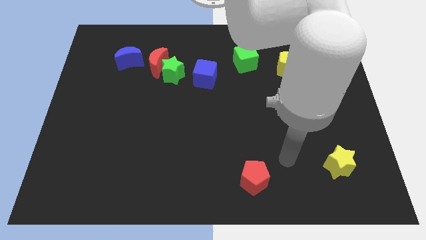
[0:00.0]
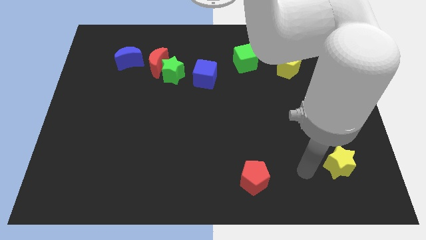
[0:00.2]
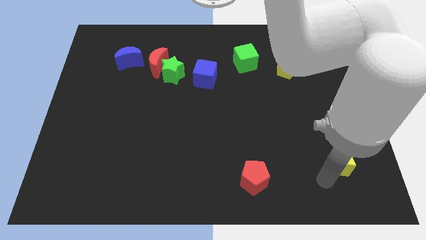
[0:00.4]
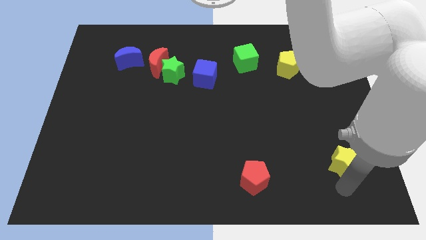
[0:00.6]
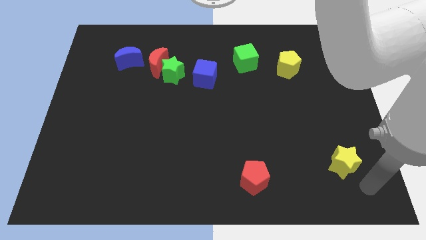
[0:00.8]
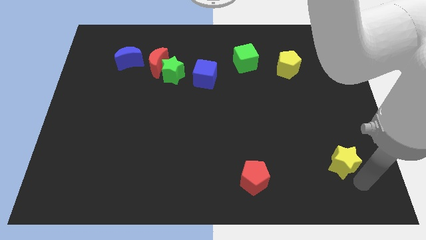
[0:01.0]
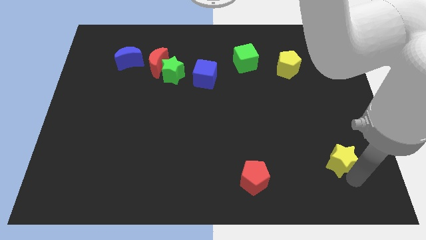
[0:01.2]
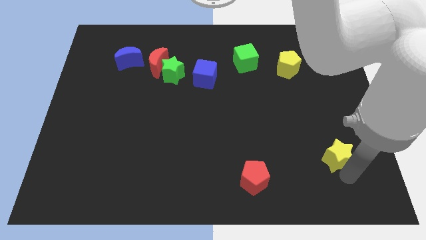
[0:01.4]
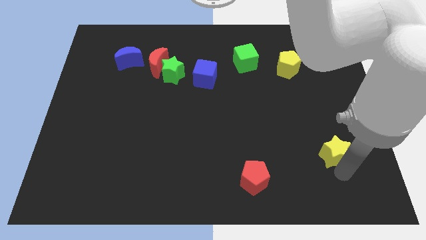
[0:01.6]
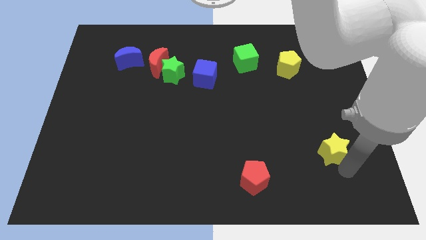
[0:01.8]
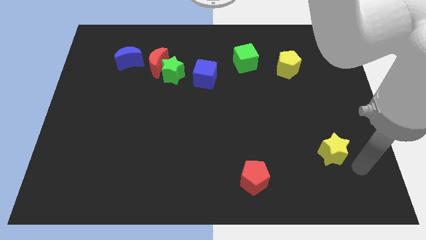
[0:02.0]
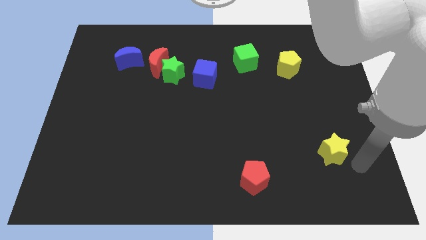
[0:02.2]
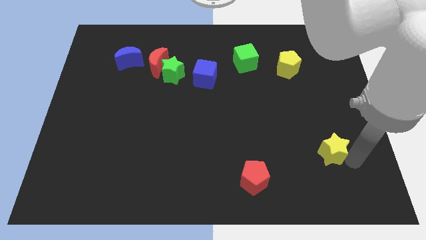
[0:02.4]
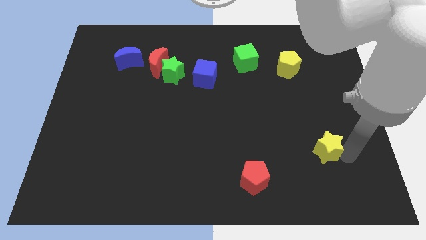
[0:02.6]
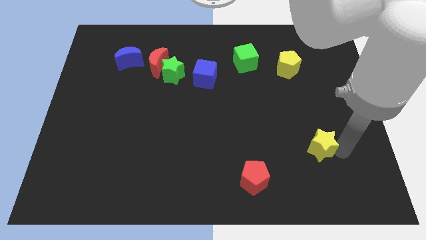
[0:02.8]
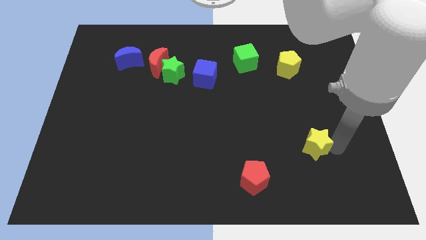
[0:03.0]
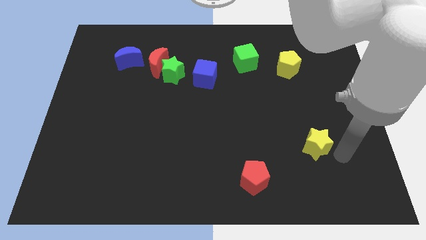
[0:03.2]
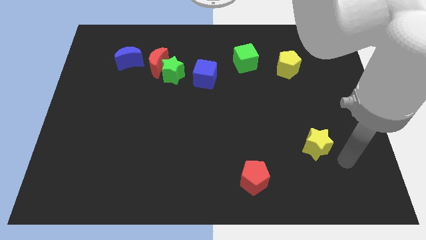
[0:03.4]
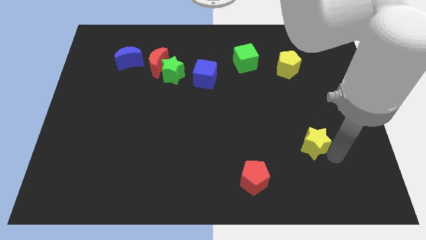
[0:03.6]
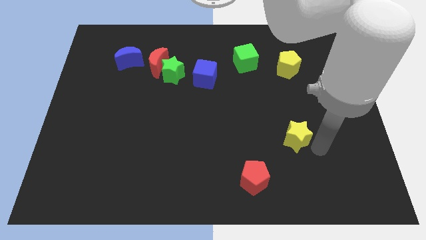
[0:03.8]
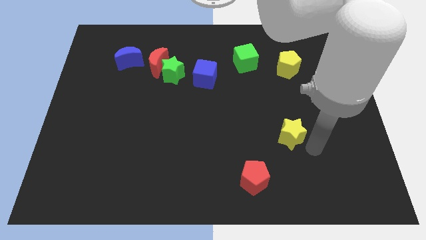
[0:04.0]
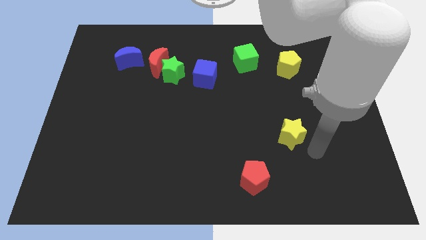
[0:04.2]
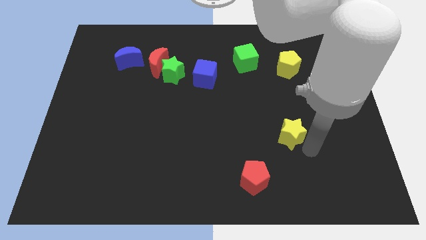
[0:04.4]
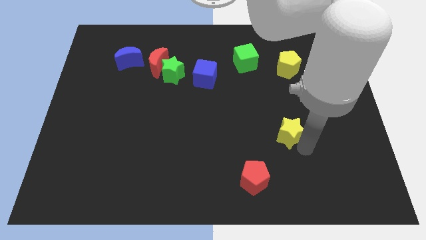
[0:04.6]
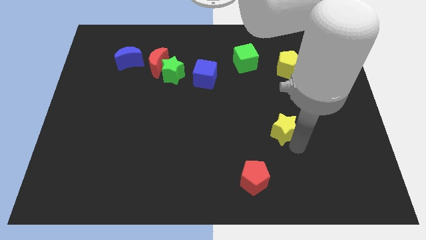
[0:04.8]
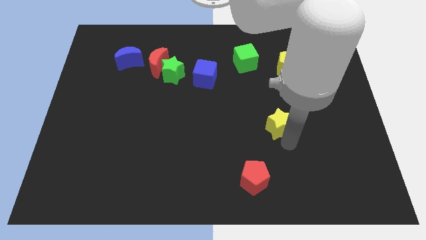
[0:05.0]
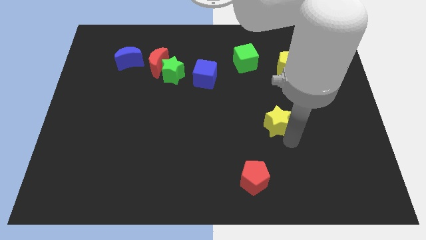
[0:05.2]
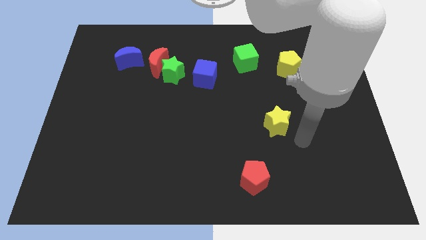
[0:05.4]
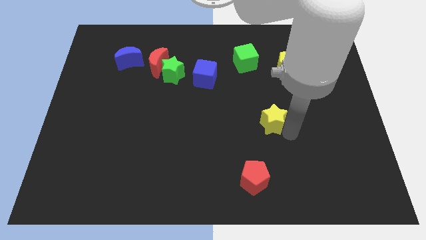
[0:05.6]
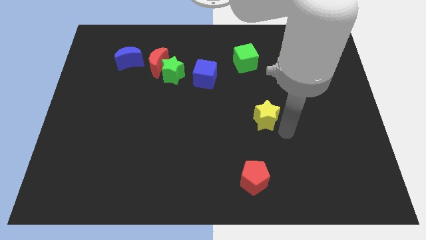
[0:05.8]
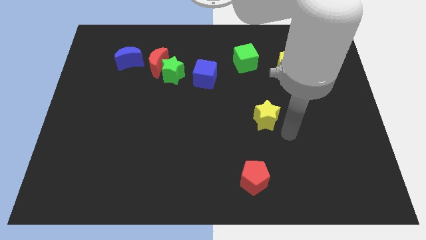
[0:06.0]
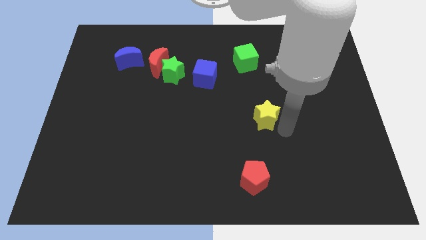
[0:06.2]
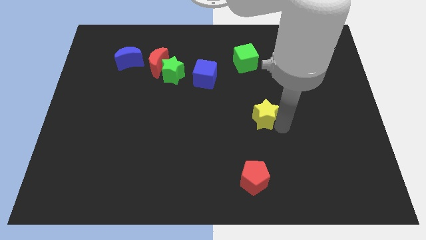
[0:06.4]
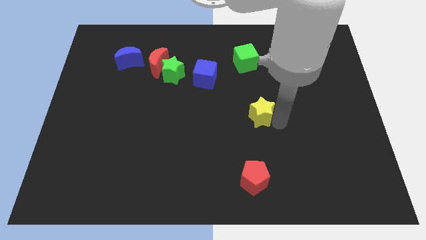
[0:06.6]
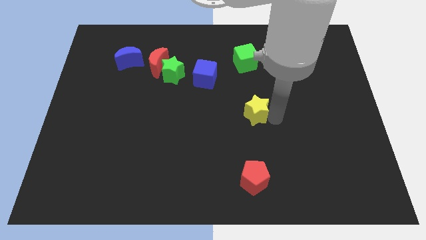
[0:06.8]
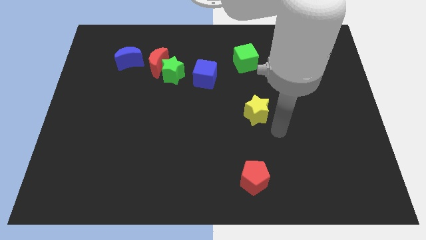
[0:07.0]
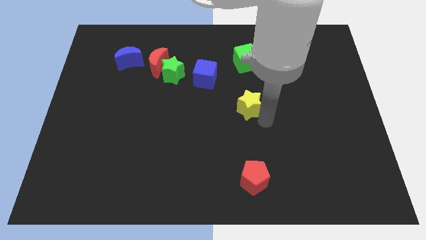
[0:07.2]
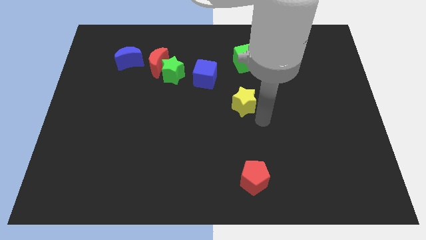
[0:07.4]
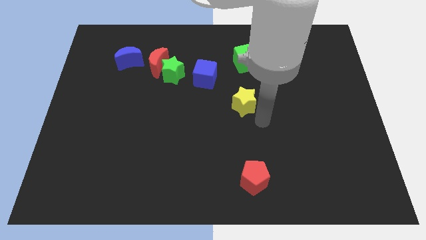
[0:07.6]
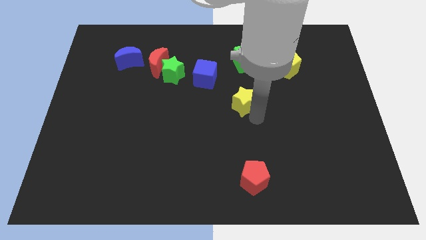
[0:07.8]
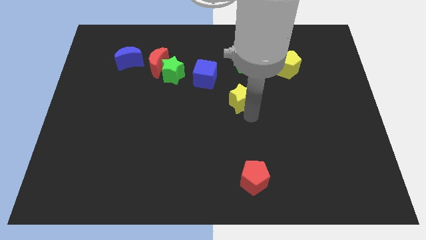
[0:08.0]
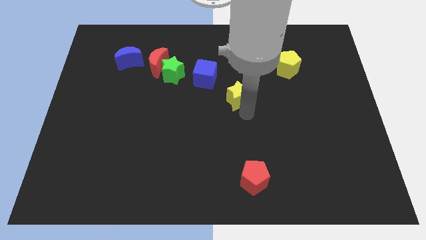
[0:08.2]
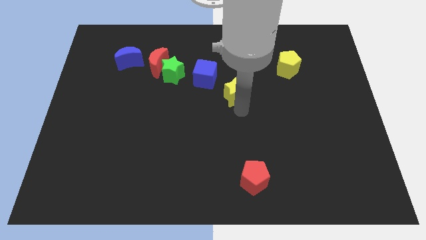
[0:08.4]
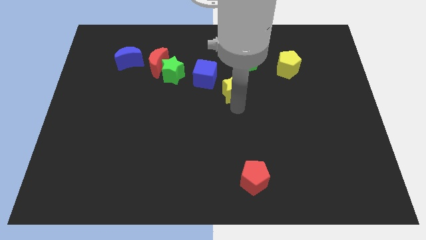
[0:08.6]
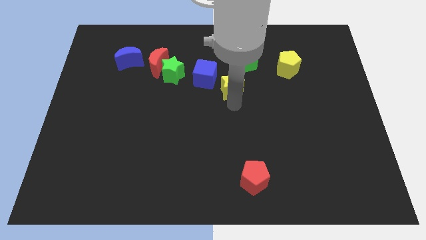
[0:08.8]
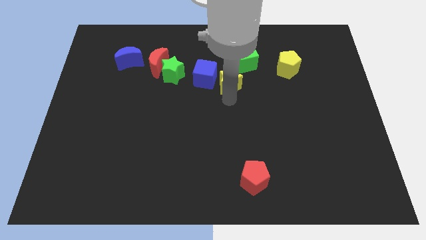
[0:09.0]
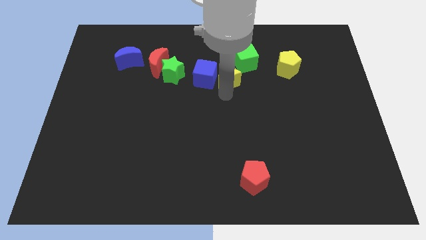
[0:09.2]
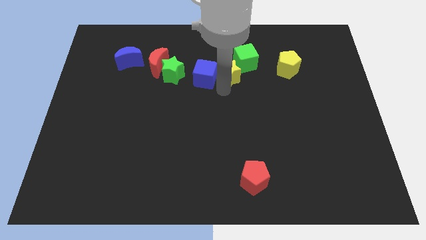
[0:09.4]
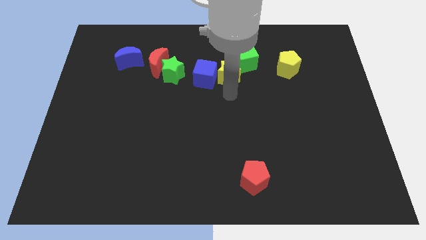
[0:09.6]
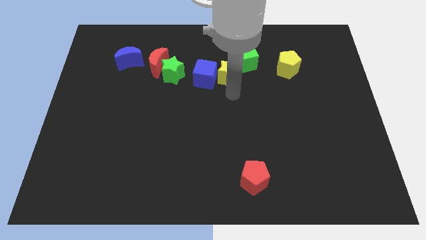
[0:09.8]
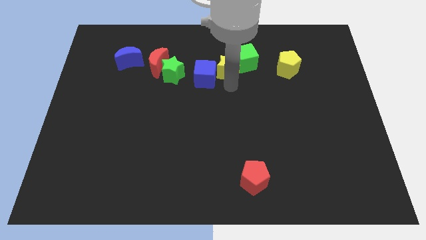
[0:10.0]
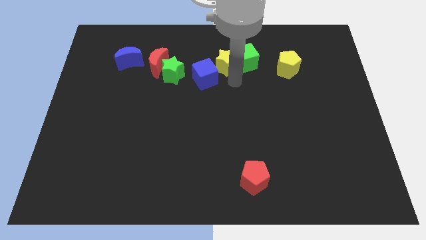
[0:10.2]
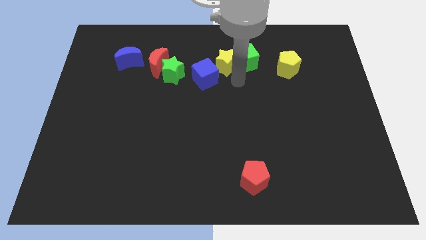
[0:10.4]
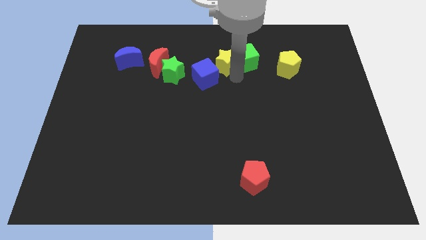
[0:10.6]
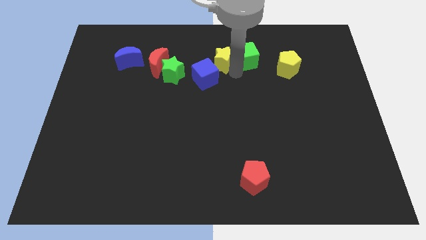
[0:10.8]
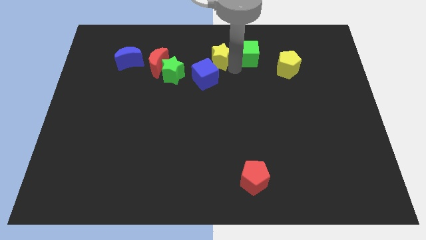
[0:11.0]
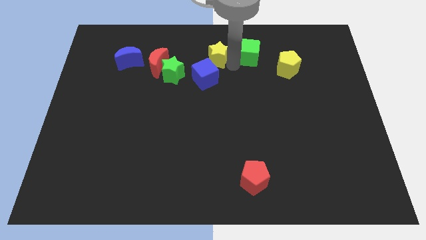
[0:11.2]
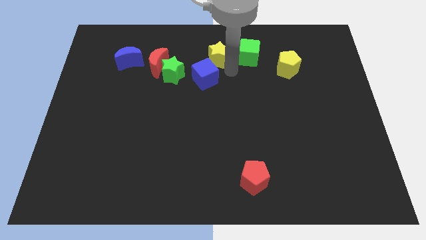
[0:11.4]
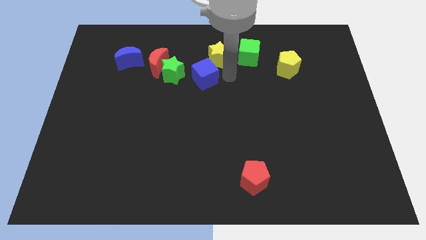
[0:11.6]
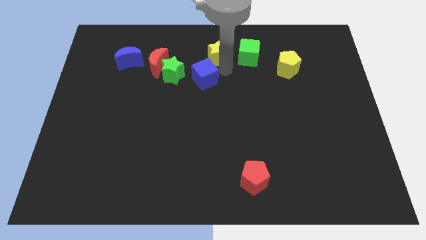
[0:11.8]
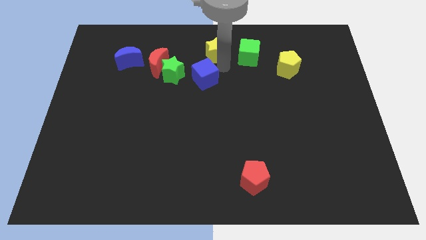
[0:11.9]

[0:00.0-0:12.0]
move the yellow star to the top side
